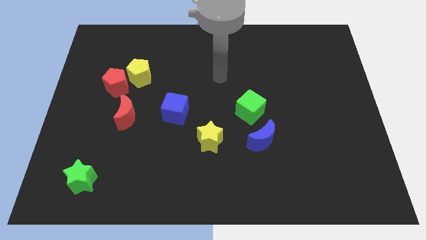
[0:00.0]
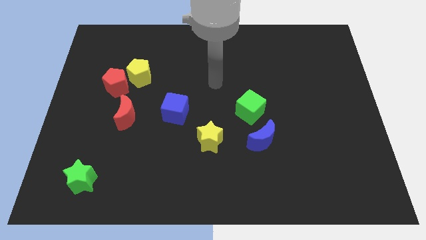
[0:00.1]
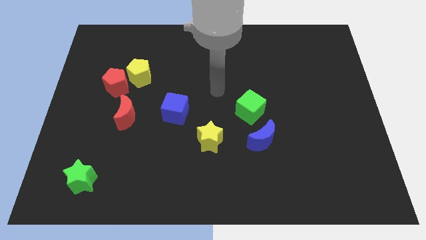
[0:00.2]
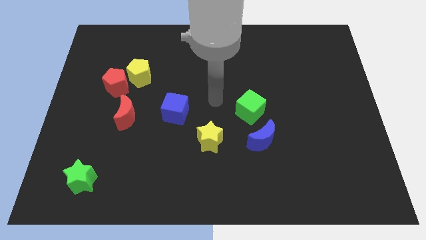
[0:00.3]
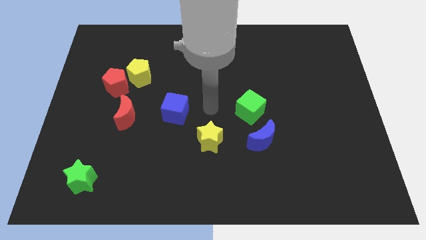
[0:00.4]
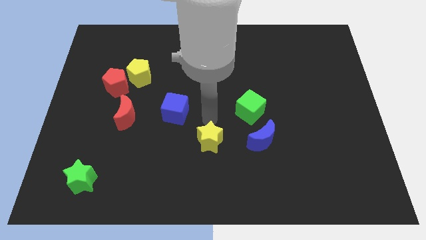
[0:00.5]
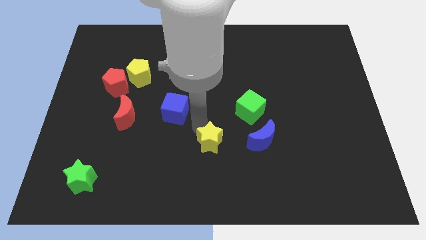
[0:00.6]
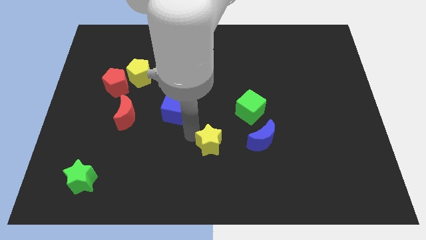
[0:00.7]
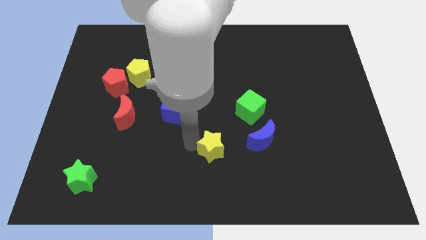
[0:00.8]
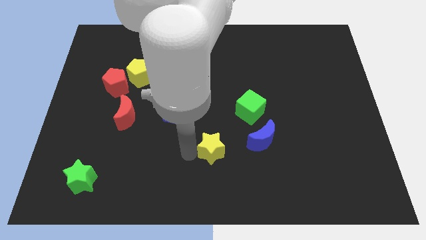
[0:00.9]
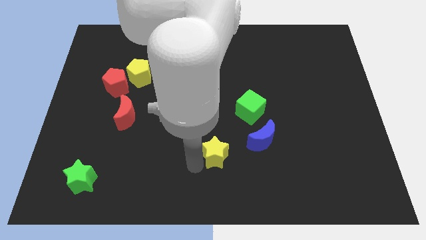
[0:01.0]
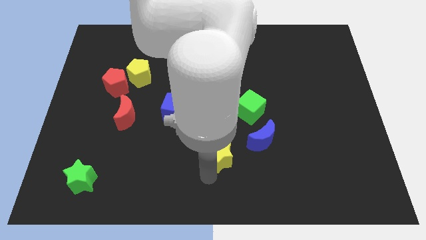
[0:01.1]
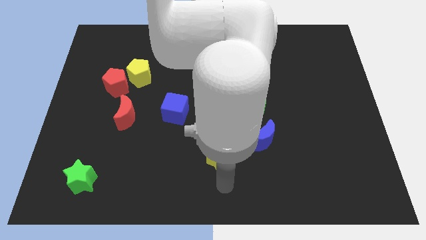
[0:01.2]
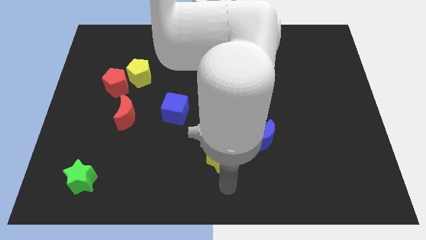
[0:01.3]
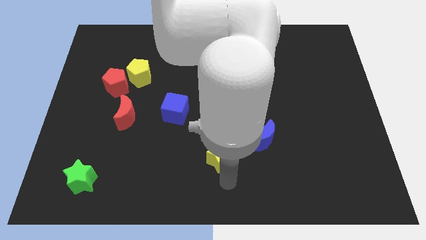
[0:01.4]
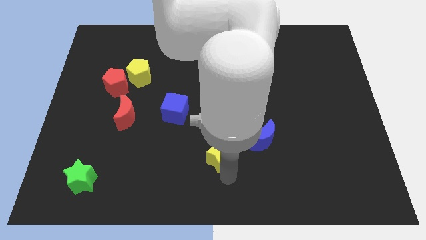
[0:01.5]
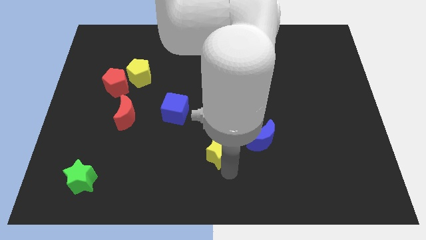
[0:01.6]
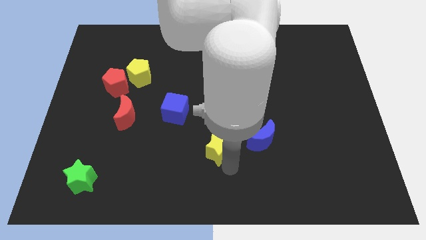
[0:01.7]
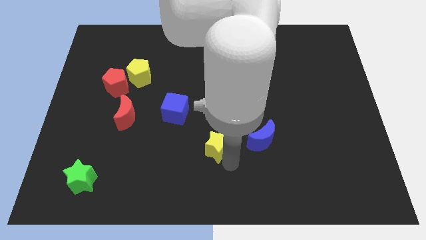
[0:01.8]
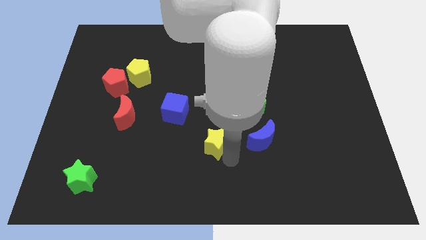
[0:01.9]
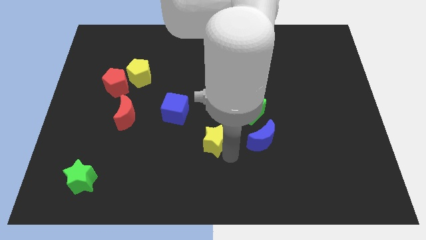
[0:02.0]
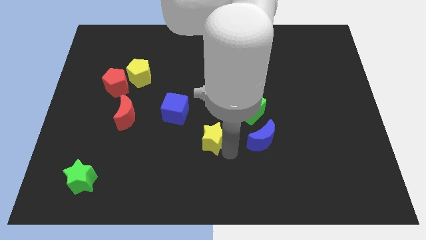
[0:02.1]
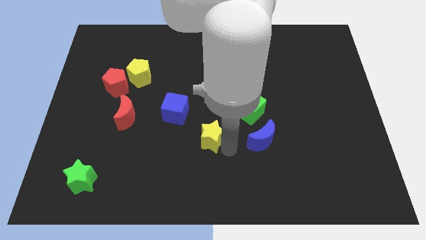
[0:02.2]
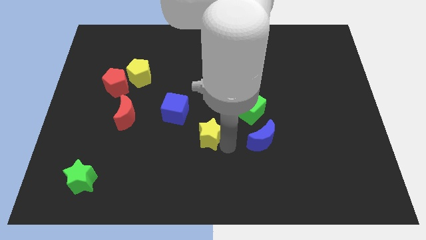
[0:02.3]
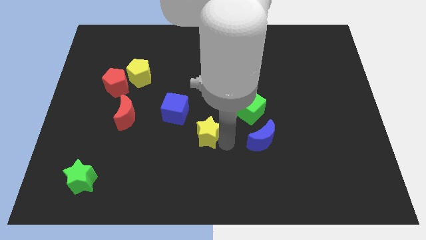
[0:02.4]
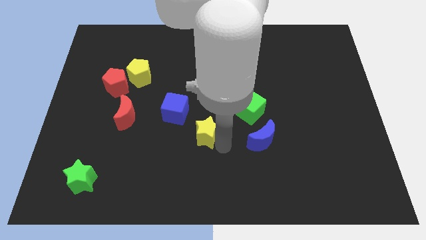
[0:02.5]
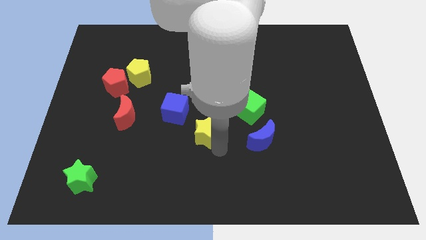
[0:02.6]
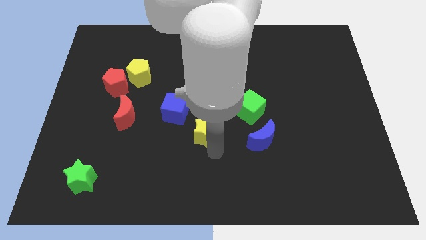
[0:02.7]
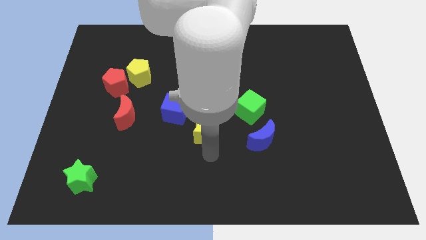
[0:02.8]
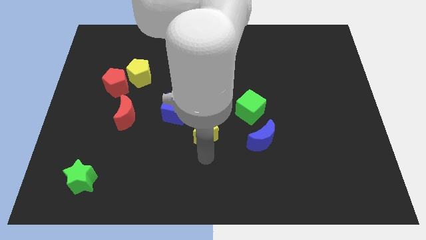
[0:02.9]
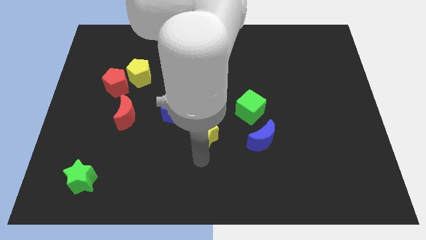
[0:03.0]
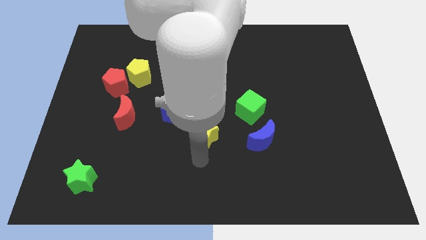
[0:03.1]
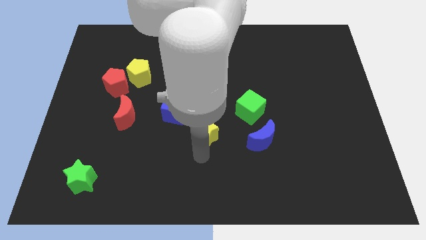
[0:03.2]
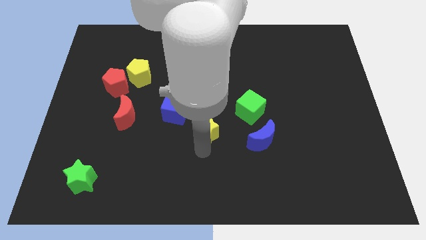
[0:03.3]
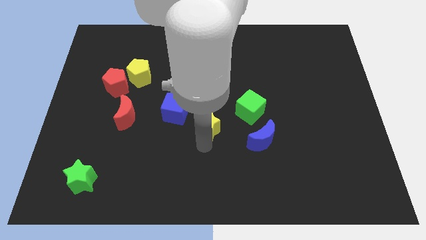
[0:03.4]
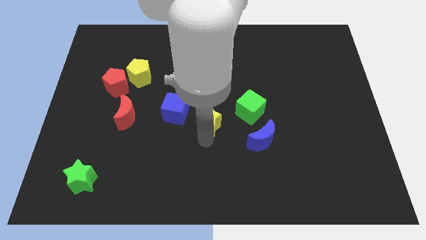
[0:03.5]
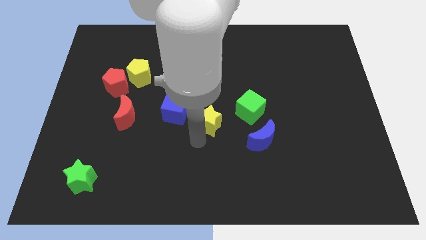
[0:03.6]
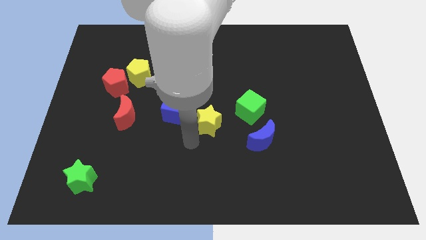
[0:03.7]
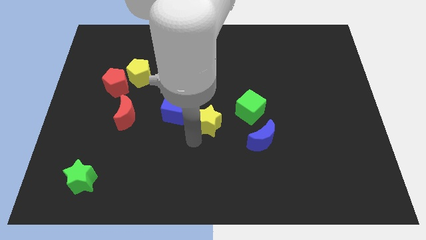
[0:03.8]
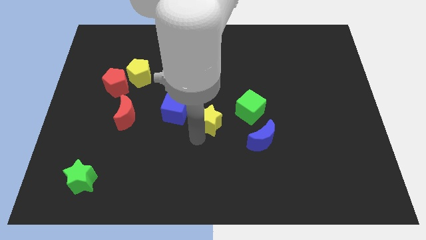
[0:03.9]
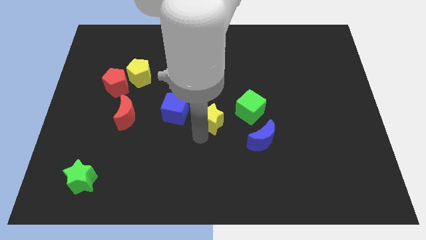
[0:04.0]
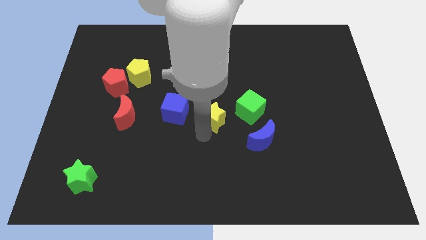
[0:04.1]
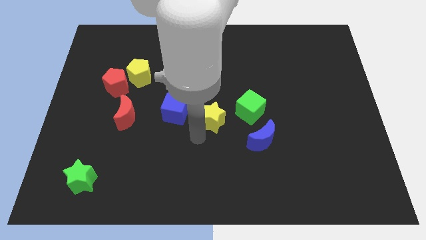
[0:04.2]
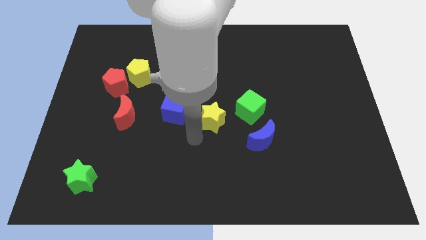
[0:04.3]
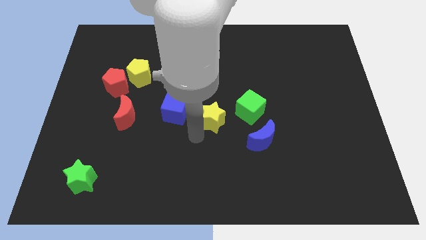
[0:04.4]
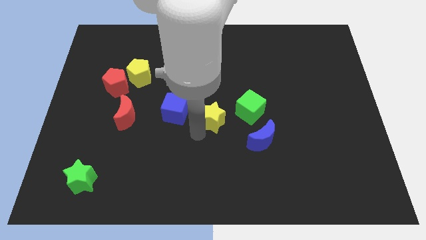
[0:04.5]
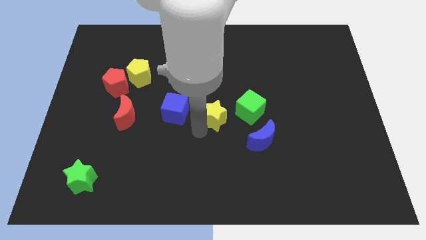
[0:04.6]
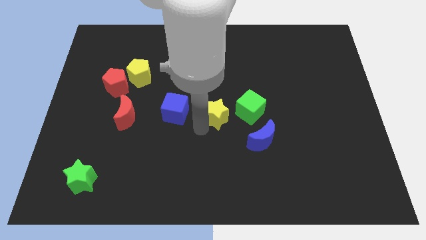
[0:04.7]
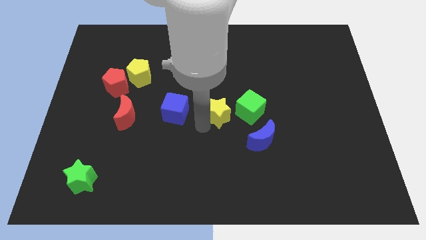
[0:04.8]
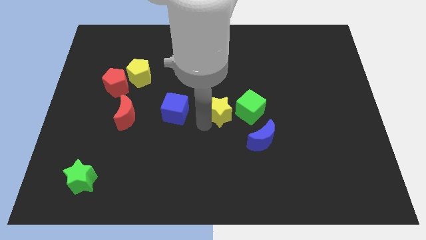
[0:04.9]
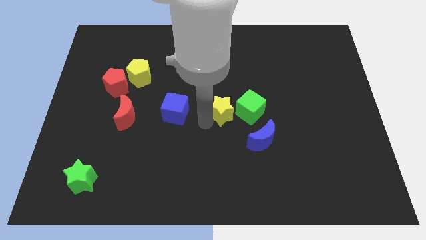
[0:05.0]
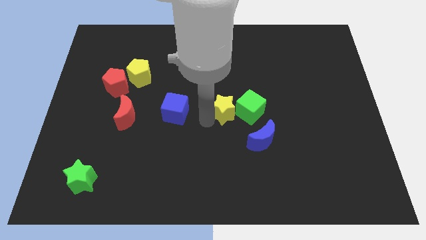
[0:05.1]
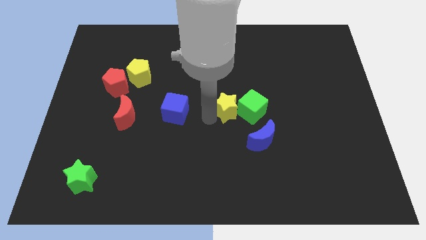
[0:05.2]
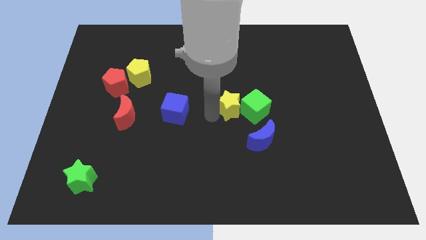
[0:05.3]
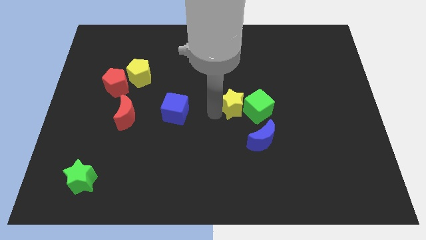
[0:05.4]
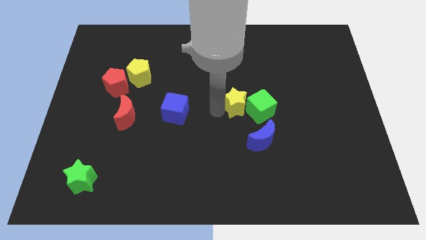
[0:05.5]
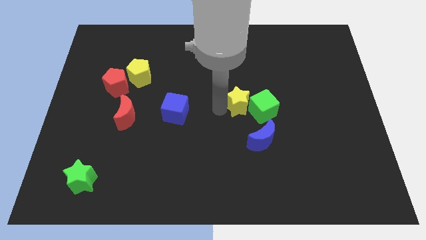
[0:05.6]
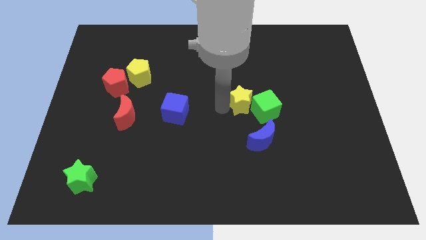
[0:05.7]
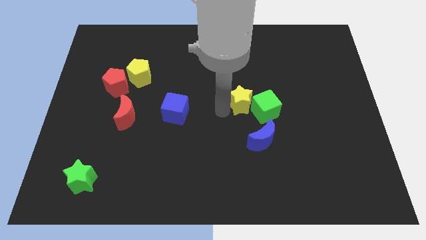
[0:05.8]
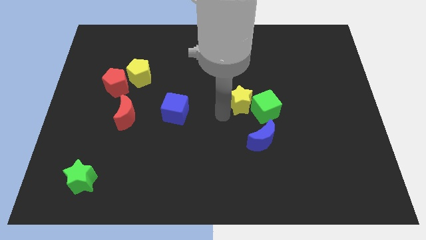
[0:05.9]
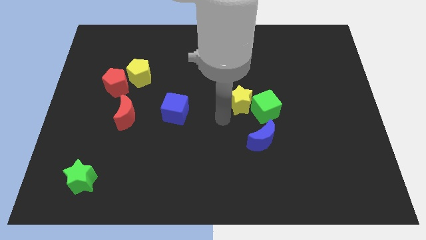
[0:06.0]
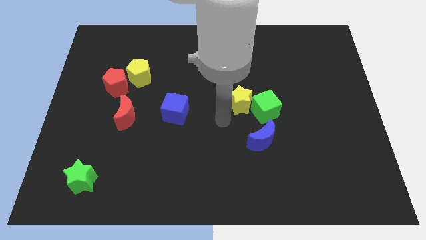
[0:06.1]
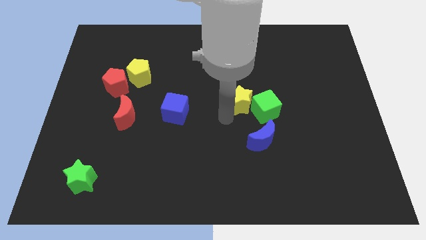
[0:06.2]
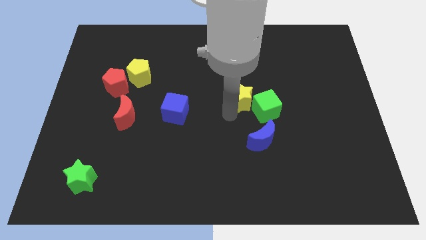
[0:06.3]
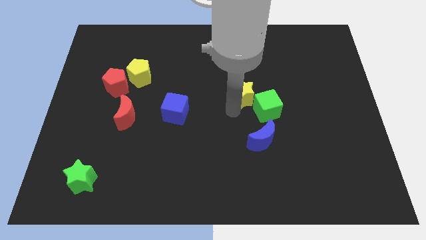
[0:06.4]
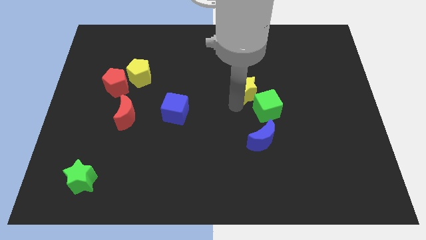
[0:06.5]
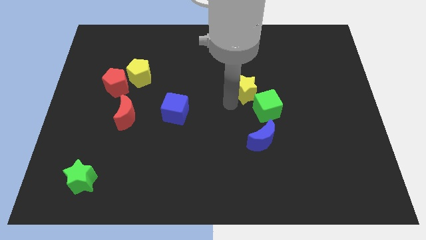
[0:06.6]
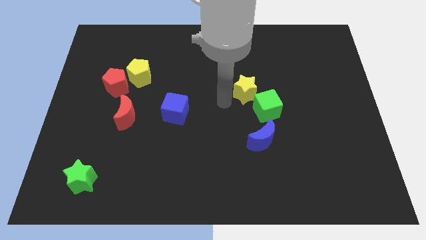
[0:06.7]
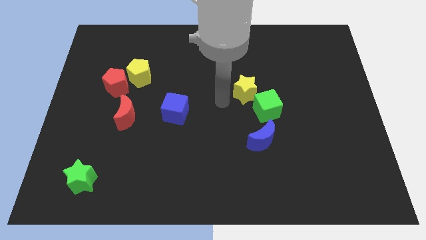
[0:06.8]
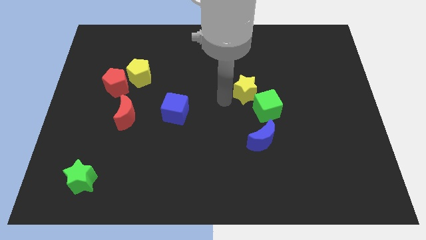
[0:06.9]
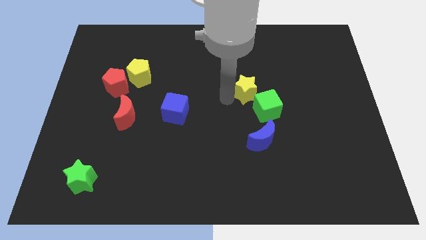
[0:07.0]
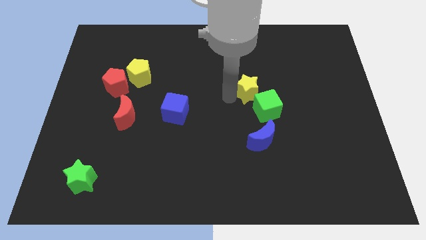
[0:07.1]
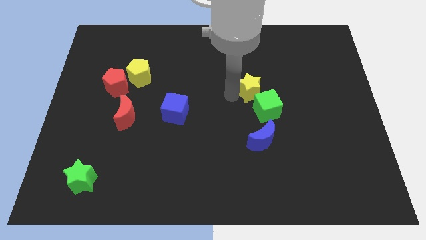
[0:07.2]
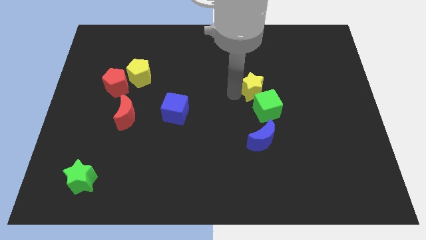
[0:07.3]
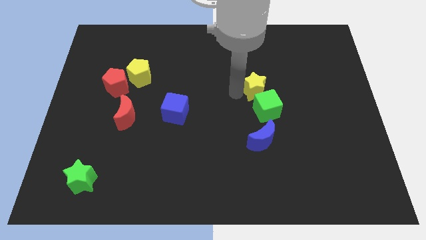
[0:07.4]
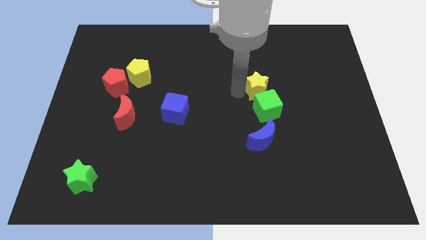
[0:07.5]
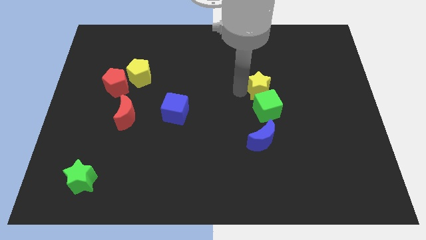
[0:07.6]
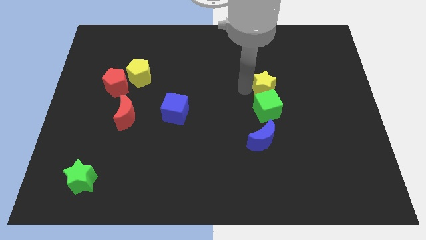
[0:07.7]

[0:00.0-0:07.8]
slide the yellow star up and then to the right

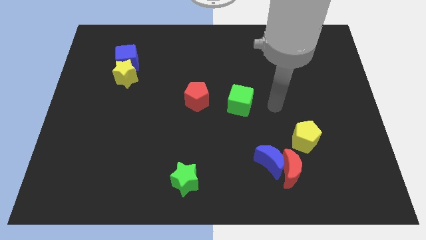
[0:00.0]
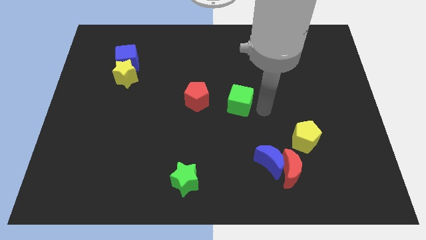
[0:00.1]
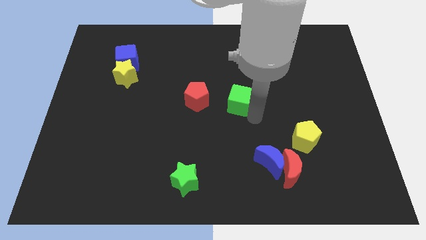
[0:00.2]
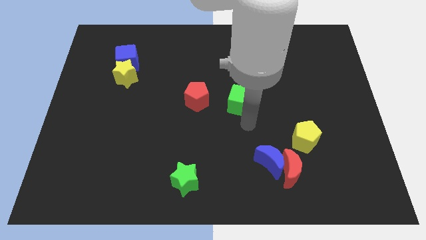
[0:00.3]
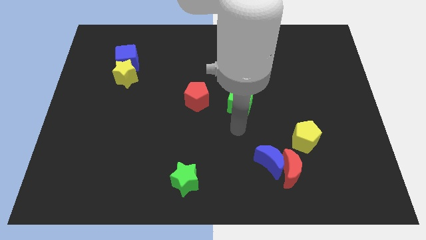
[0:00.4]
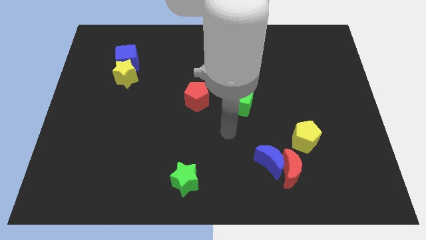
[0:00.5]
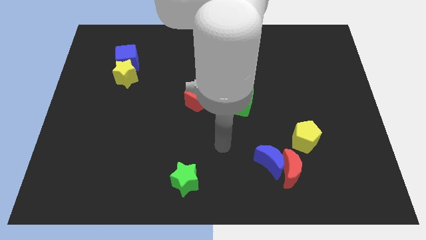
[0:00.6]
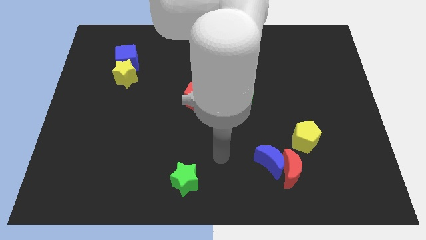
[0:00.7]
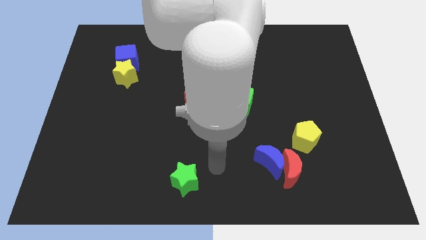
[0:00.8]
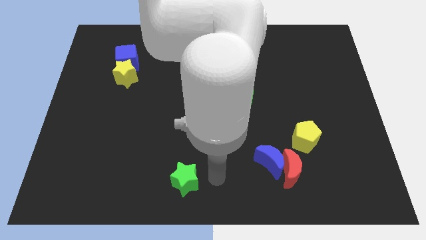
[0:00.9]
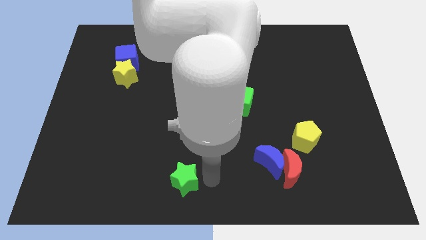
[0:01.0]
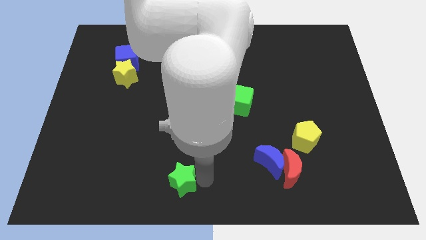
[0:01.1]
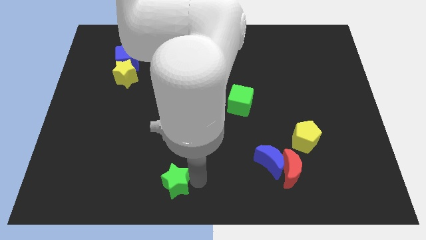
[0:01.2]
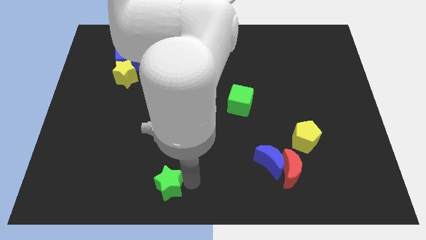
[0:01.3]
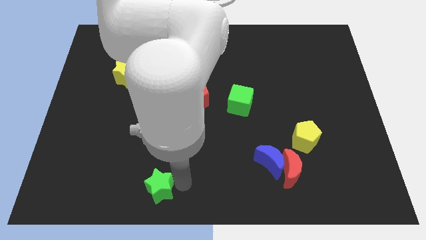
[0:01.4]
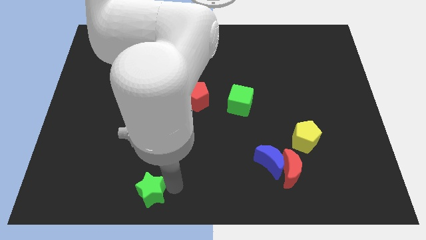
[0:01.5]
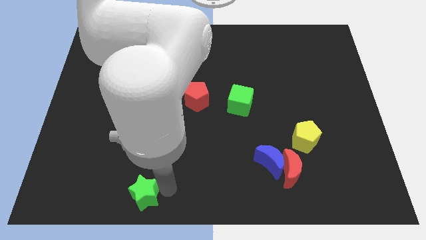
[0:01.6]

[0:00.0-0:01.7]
slightly push the green star to the left
